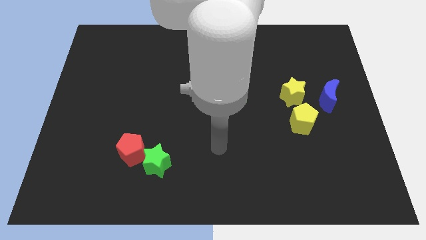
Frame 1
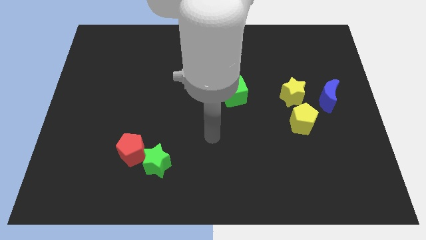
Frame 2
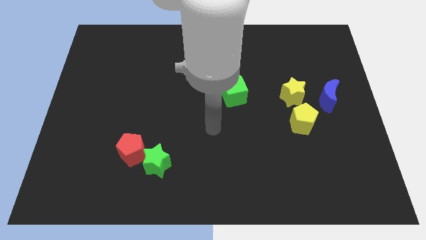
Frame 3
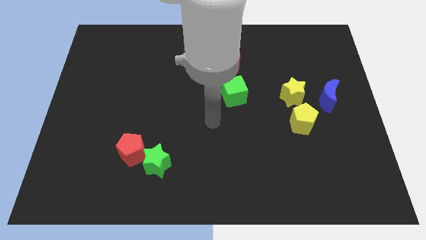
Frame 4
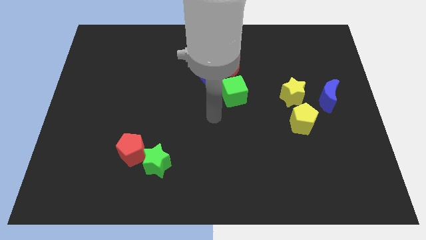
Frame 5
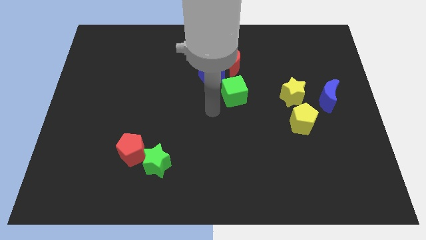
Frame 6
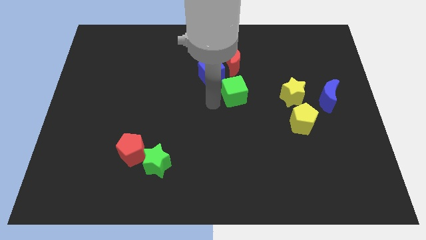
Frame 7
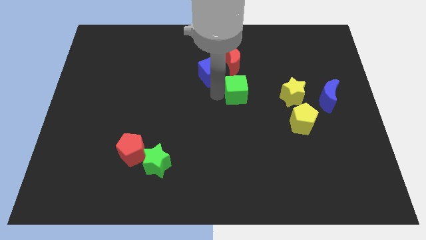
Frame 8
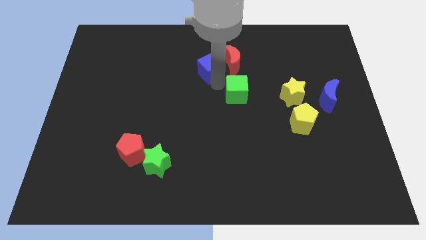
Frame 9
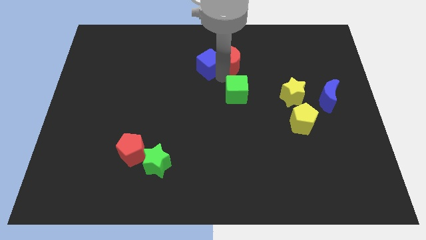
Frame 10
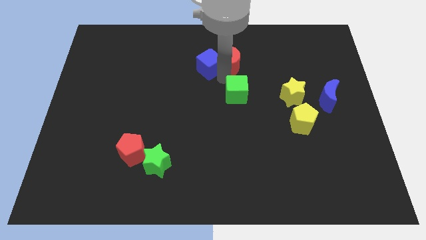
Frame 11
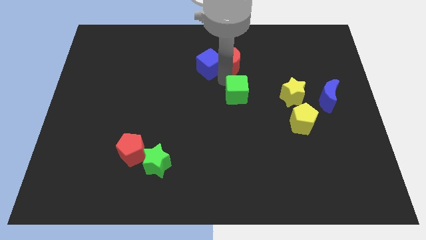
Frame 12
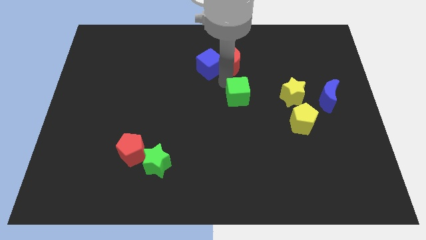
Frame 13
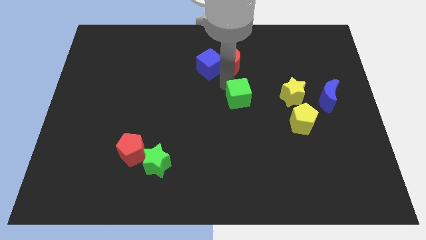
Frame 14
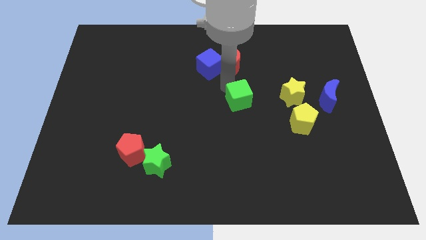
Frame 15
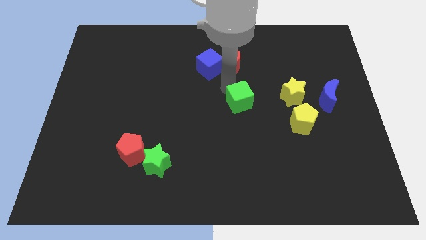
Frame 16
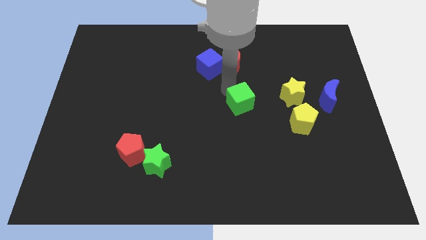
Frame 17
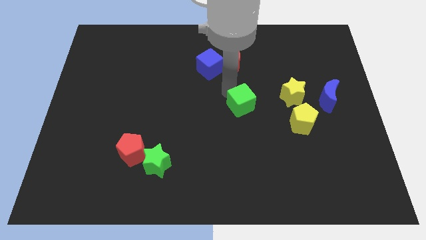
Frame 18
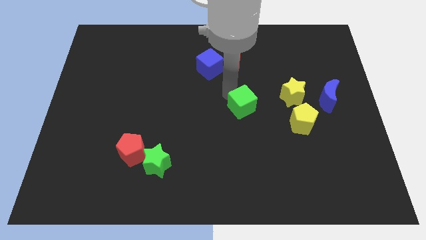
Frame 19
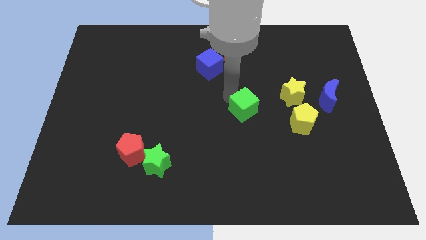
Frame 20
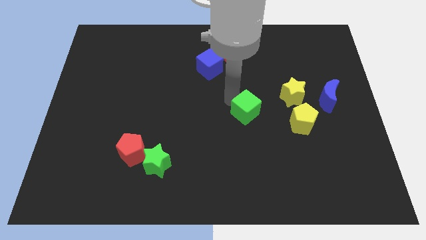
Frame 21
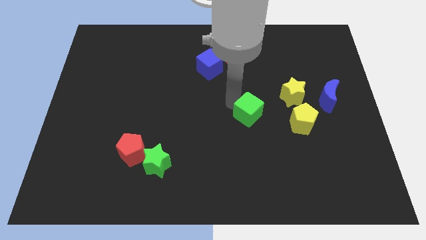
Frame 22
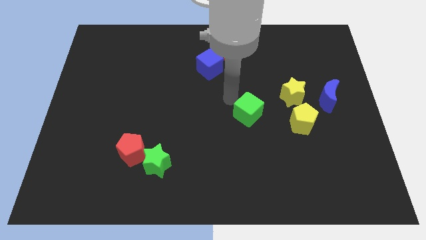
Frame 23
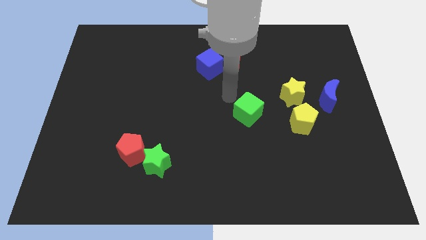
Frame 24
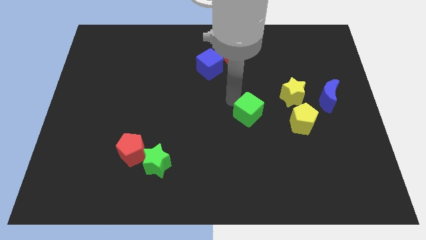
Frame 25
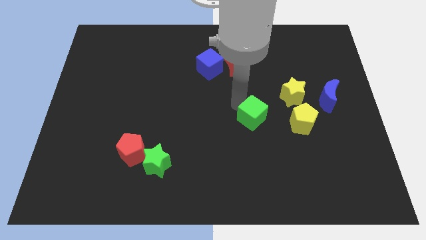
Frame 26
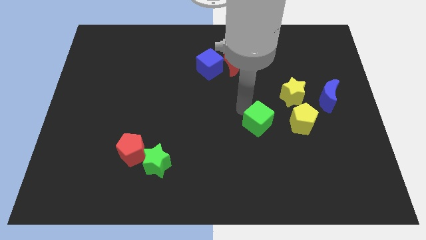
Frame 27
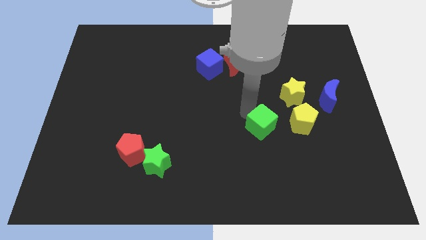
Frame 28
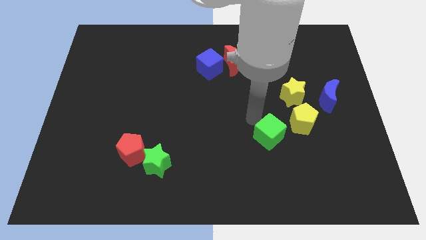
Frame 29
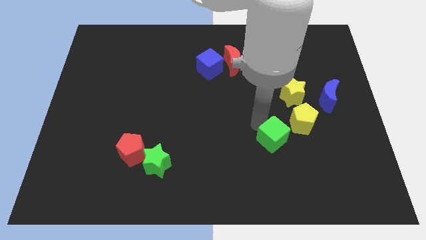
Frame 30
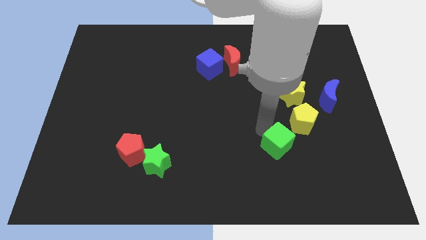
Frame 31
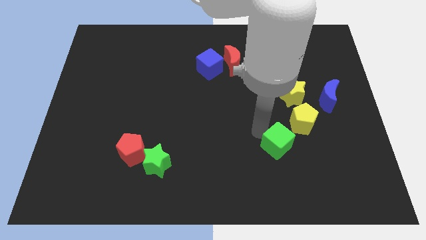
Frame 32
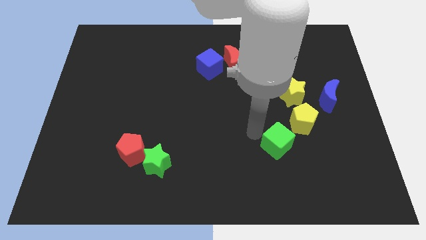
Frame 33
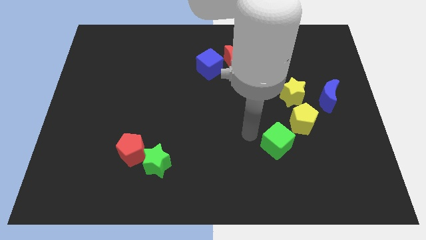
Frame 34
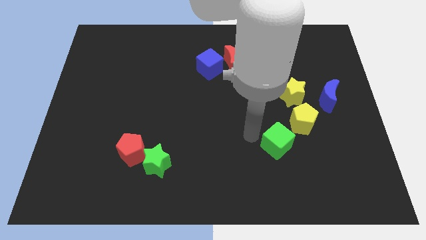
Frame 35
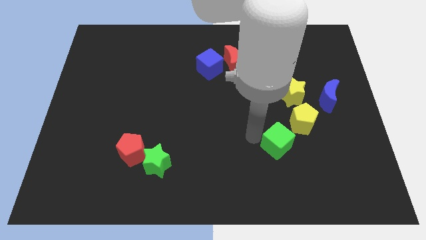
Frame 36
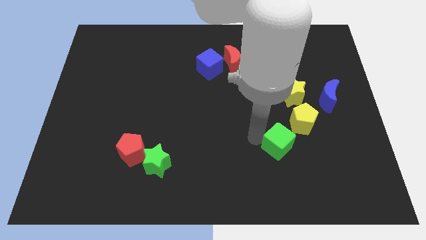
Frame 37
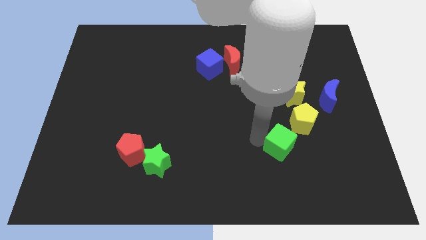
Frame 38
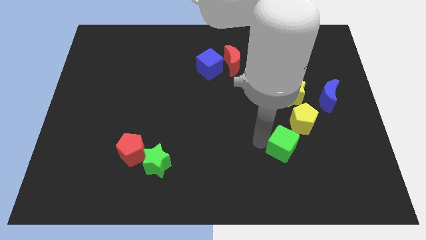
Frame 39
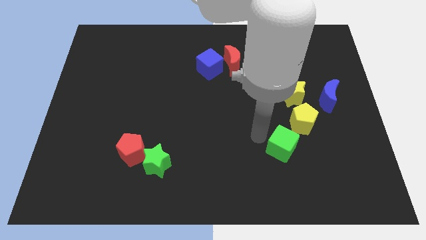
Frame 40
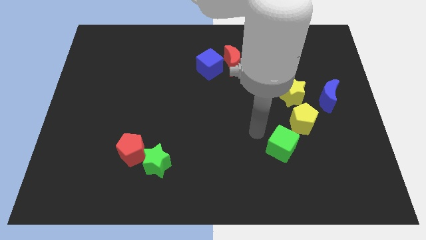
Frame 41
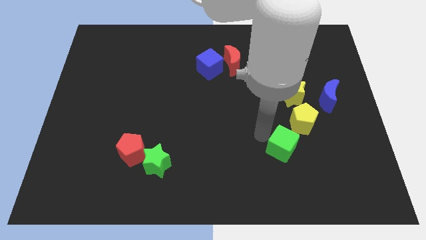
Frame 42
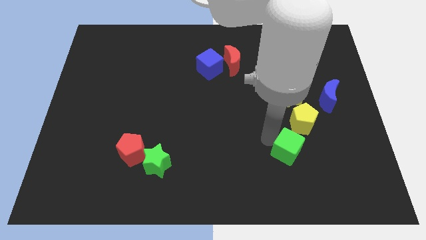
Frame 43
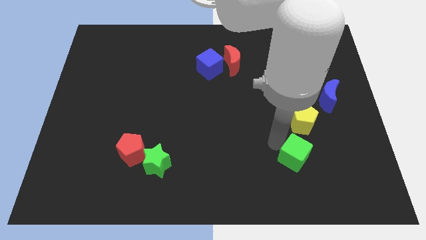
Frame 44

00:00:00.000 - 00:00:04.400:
slide the green cube downwards and right

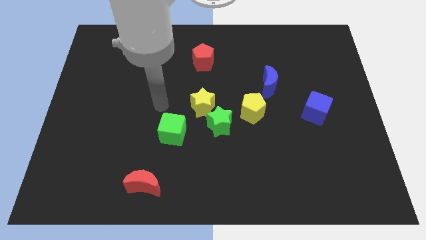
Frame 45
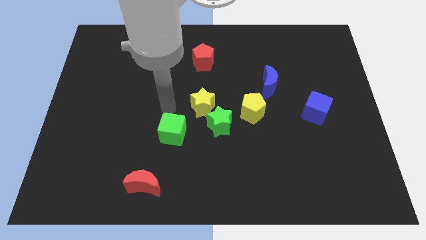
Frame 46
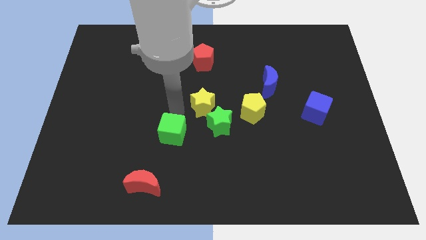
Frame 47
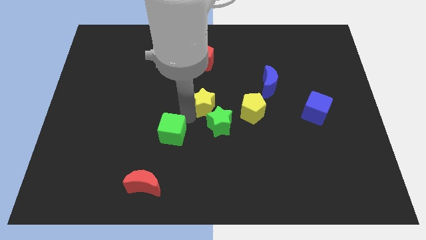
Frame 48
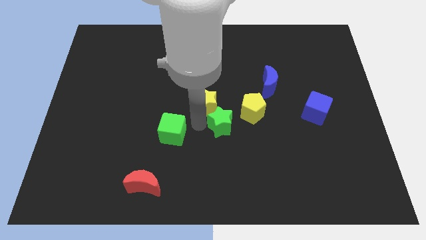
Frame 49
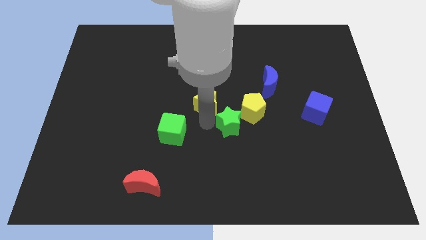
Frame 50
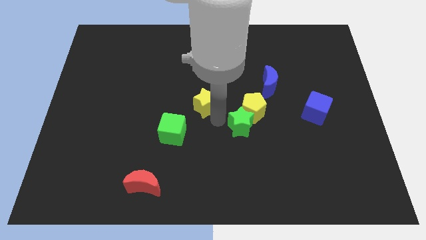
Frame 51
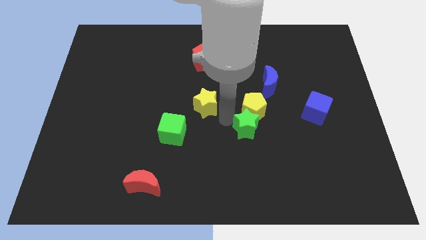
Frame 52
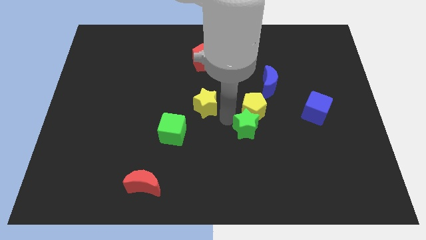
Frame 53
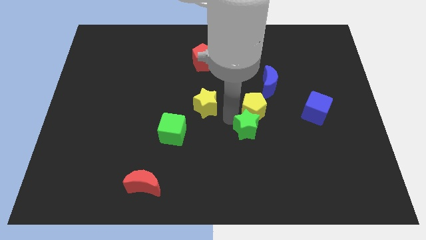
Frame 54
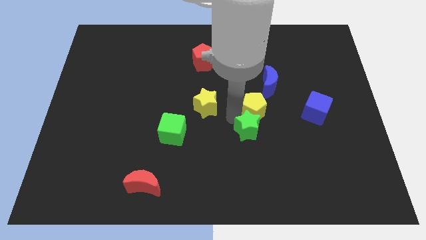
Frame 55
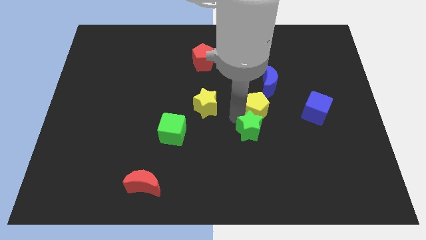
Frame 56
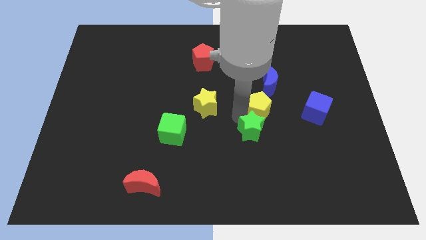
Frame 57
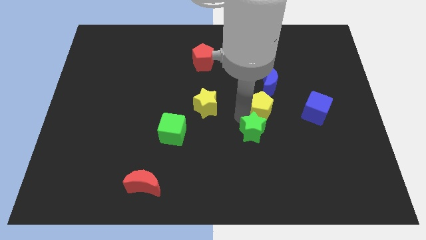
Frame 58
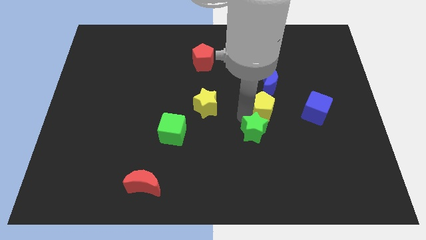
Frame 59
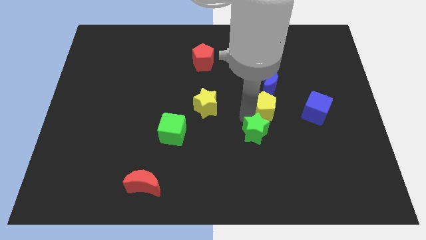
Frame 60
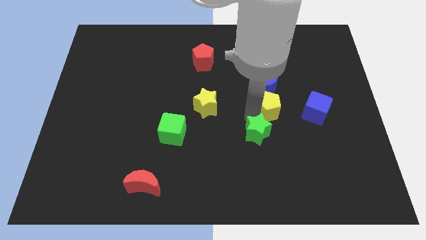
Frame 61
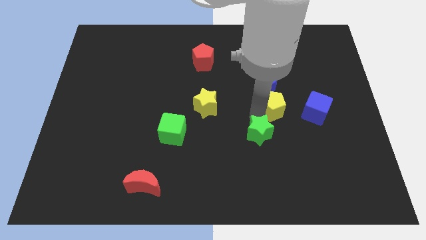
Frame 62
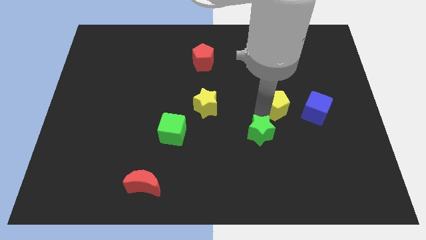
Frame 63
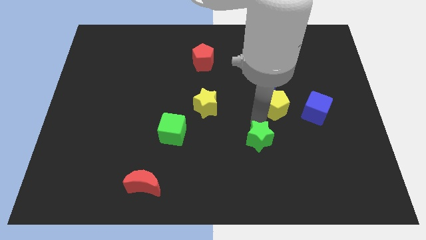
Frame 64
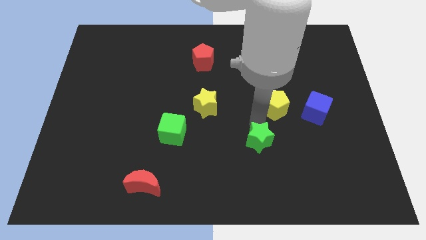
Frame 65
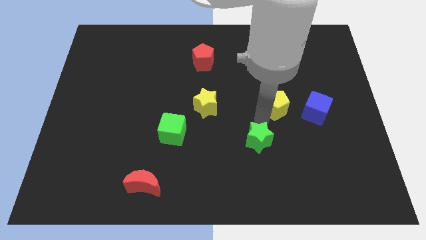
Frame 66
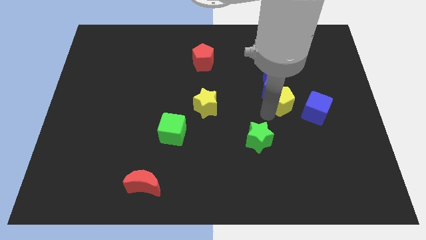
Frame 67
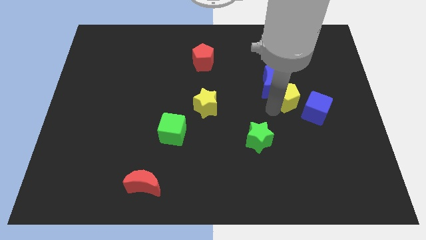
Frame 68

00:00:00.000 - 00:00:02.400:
slightly push the yellow pentagon up and to the right

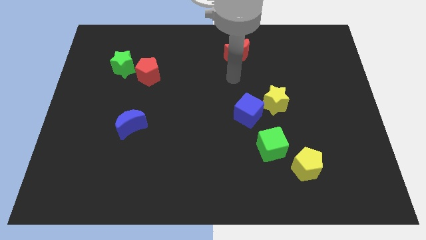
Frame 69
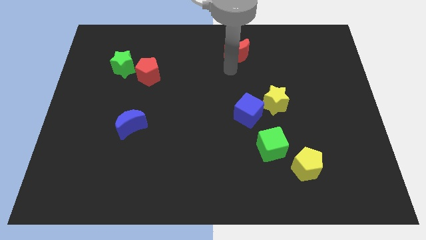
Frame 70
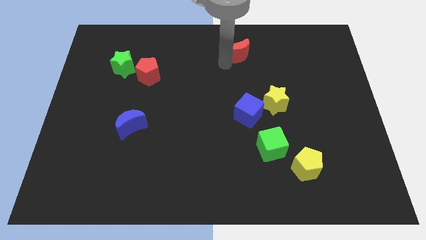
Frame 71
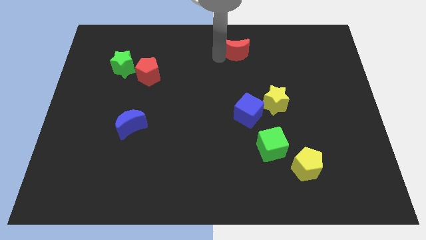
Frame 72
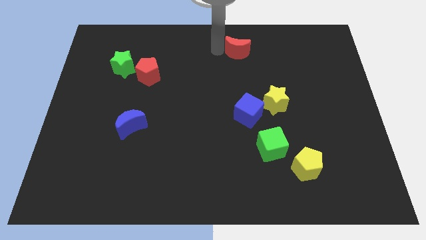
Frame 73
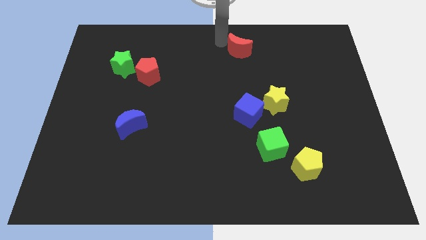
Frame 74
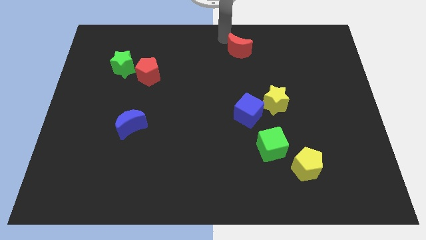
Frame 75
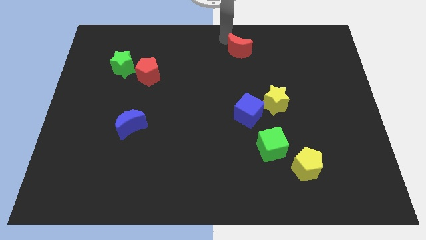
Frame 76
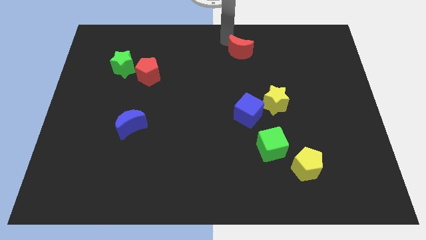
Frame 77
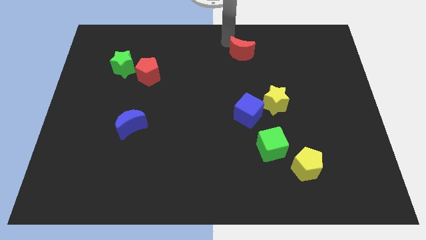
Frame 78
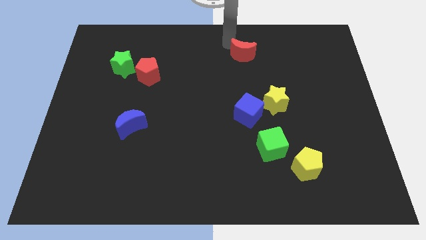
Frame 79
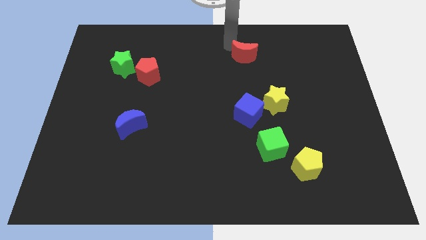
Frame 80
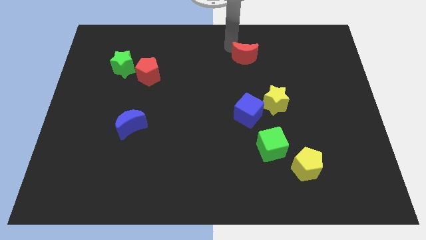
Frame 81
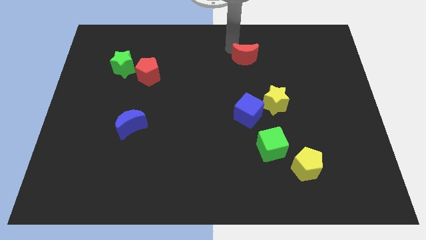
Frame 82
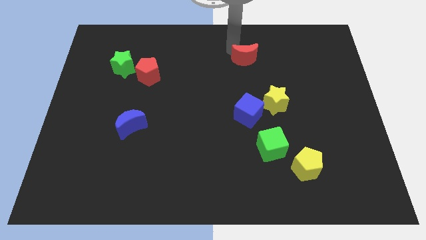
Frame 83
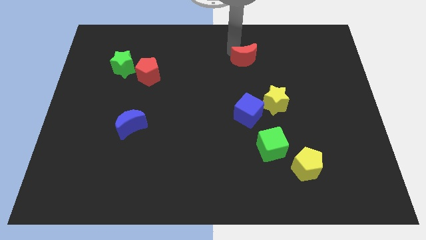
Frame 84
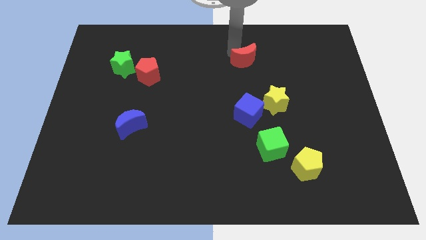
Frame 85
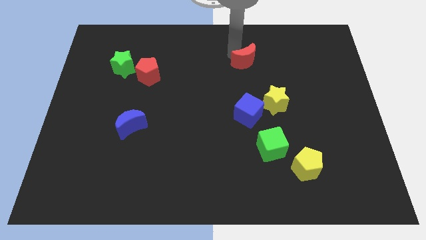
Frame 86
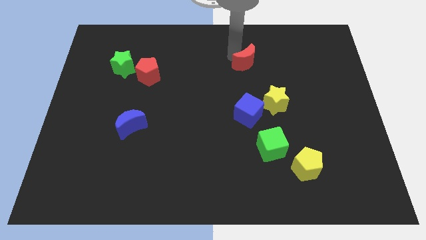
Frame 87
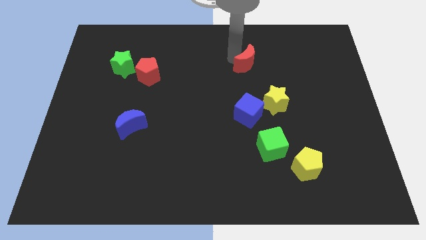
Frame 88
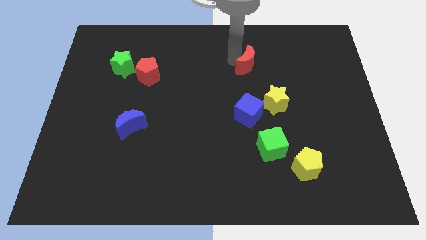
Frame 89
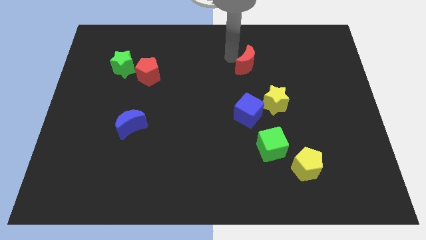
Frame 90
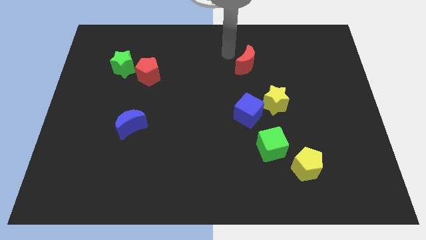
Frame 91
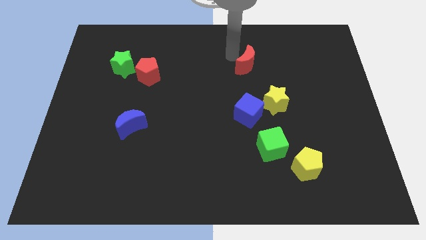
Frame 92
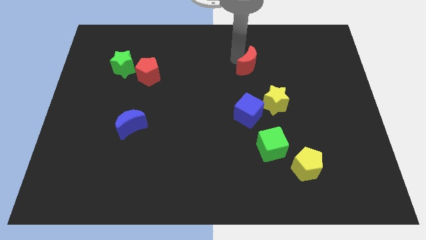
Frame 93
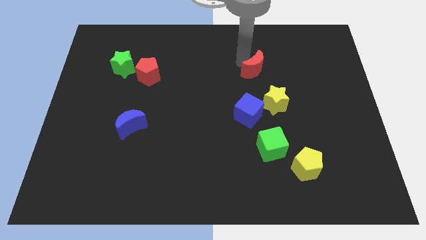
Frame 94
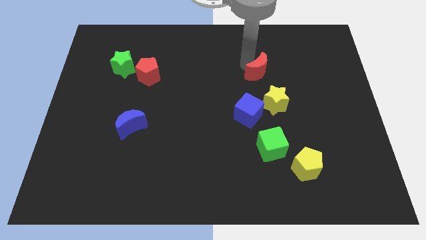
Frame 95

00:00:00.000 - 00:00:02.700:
slightly move the red moon down and then to the right
